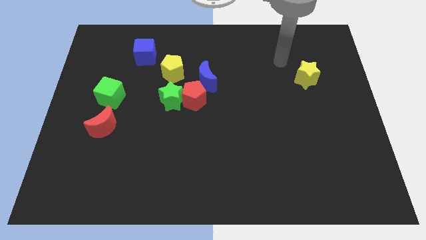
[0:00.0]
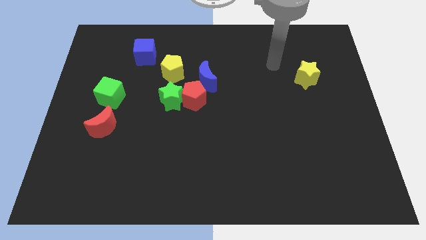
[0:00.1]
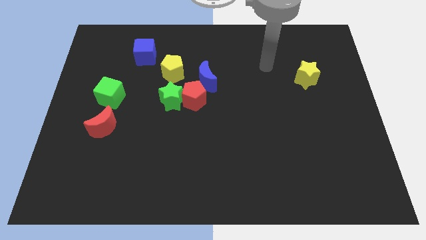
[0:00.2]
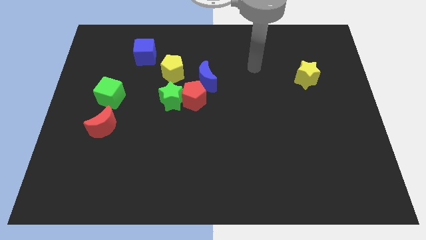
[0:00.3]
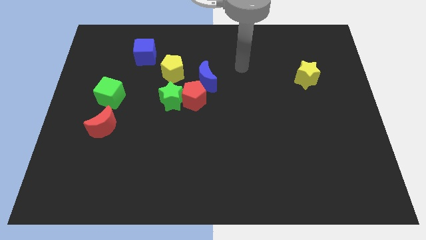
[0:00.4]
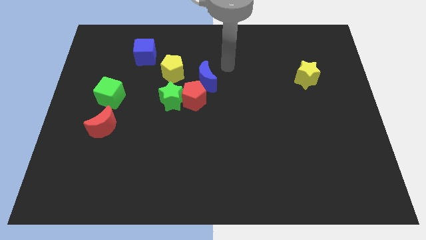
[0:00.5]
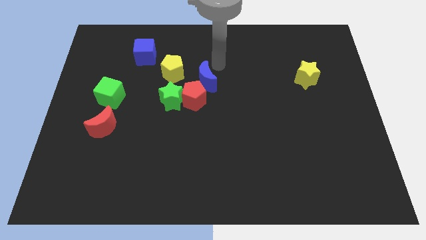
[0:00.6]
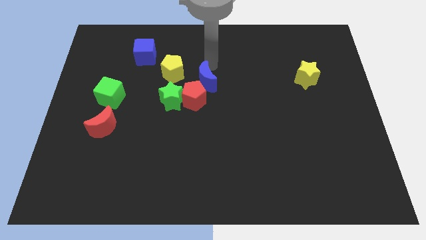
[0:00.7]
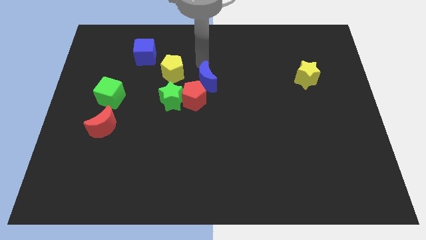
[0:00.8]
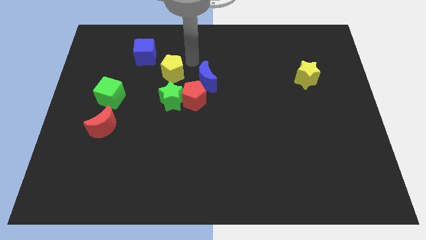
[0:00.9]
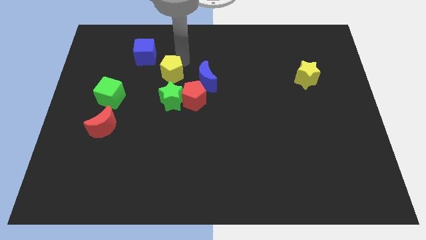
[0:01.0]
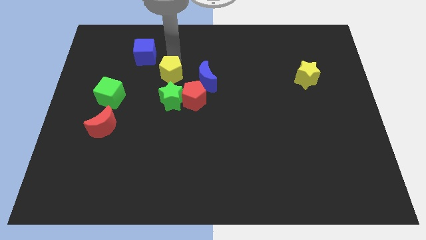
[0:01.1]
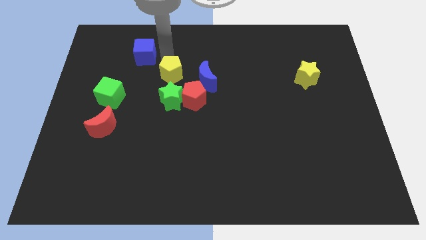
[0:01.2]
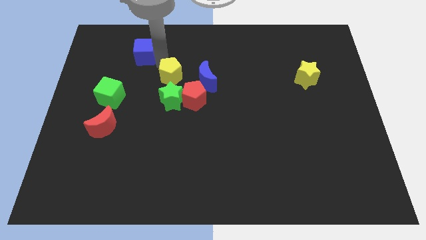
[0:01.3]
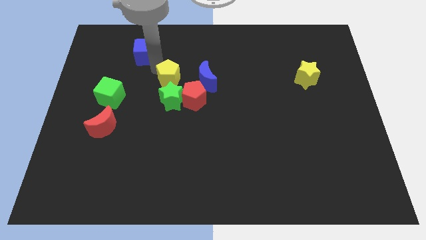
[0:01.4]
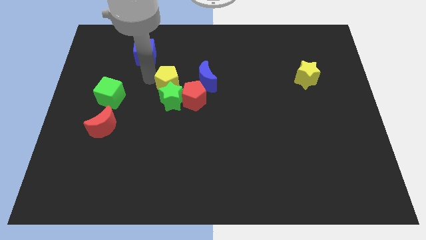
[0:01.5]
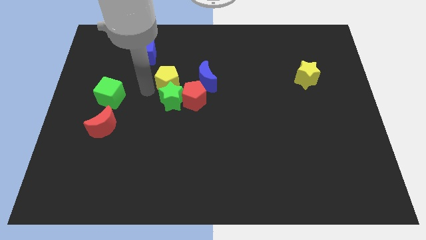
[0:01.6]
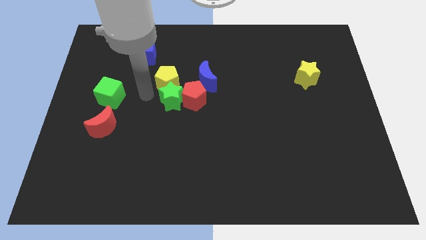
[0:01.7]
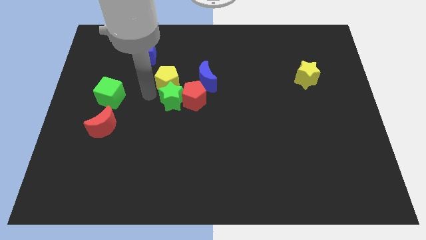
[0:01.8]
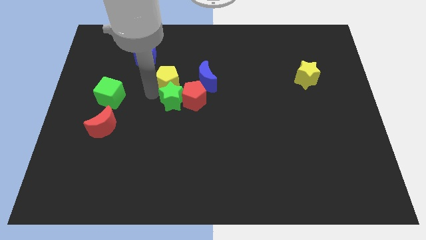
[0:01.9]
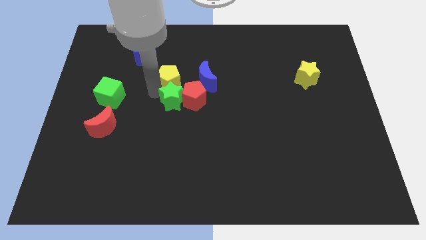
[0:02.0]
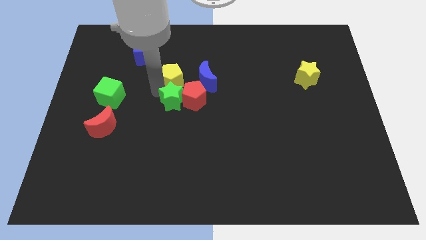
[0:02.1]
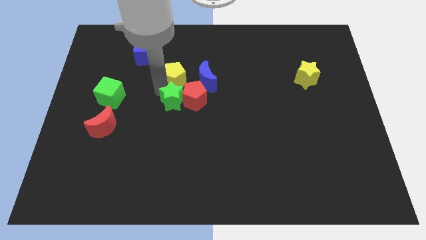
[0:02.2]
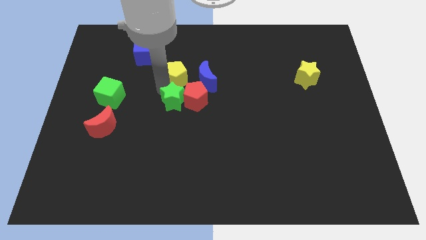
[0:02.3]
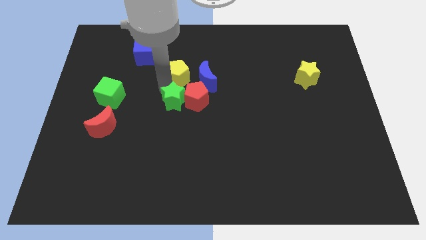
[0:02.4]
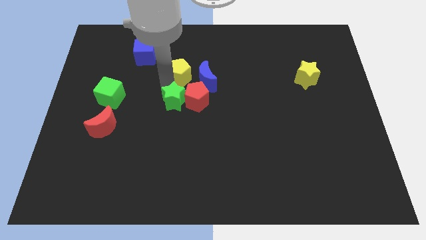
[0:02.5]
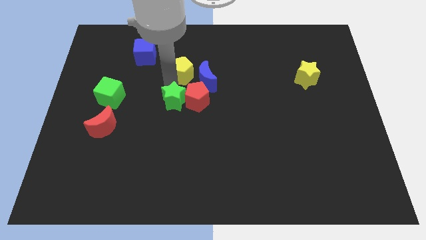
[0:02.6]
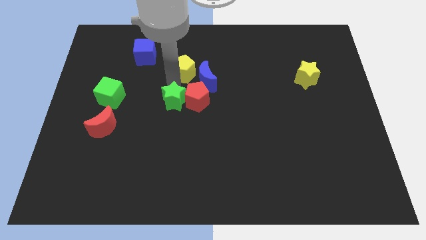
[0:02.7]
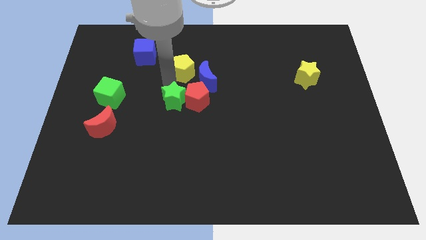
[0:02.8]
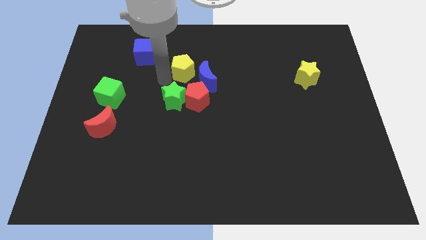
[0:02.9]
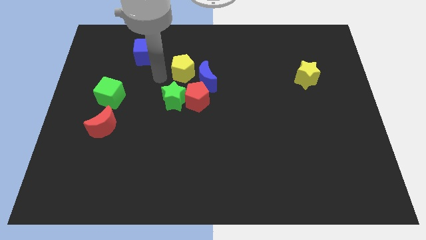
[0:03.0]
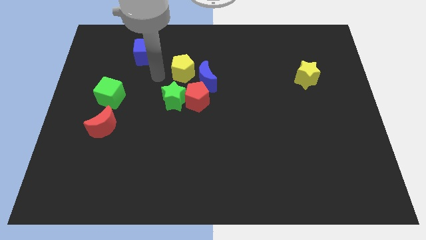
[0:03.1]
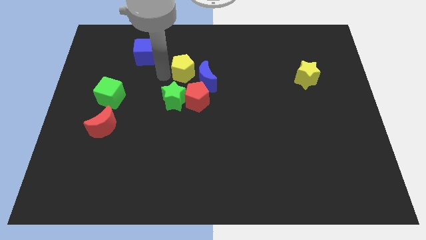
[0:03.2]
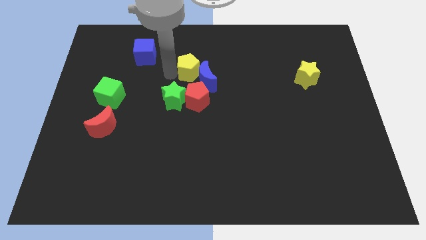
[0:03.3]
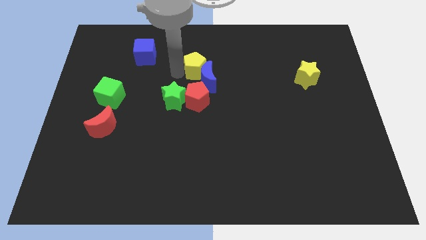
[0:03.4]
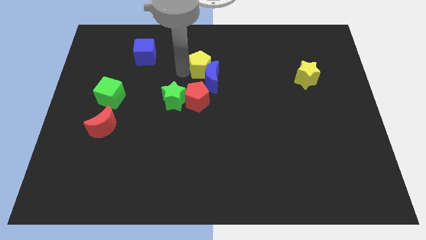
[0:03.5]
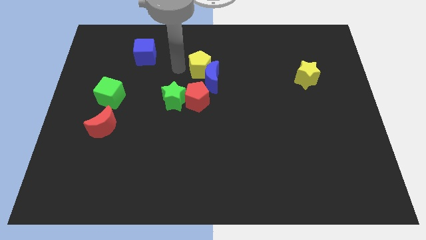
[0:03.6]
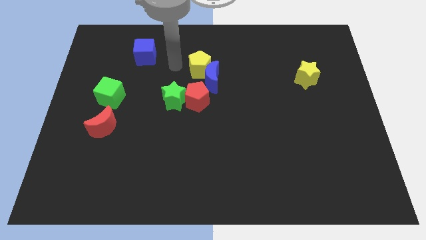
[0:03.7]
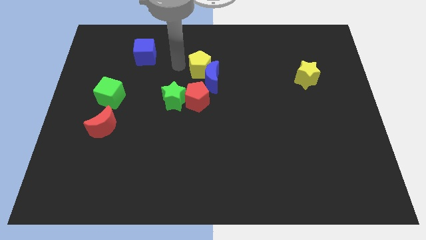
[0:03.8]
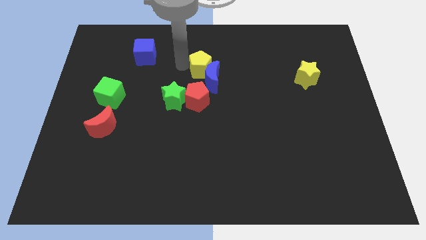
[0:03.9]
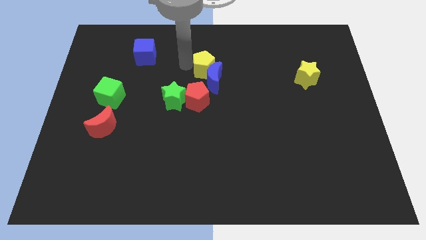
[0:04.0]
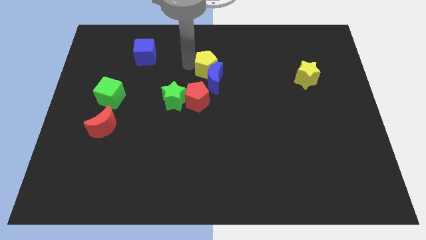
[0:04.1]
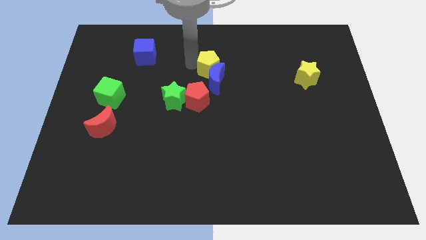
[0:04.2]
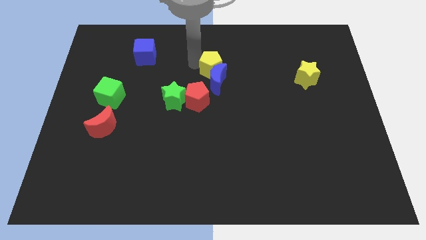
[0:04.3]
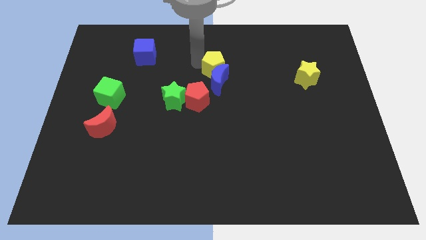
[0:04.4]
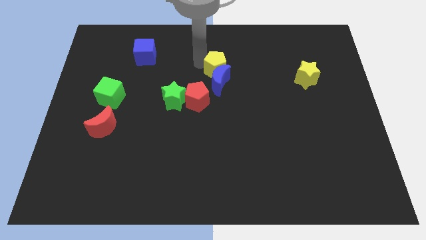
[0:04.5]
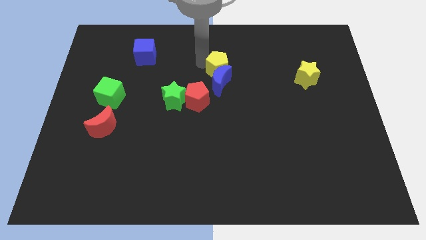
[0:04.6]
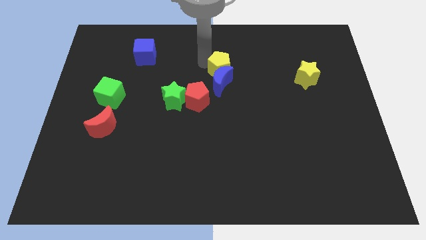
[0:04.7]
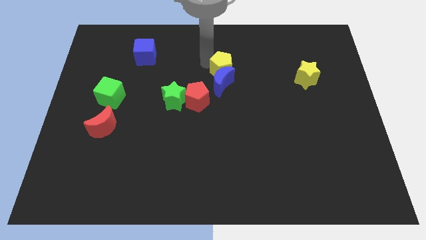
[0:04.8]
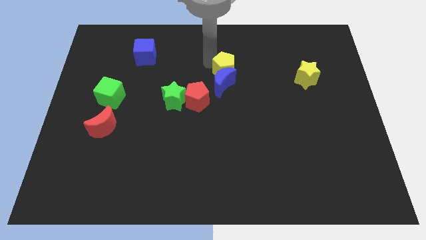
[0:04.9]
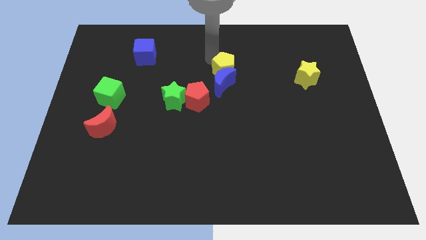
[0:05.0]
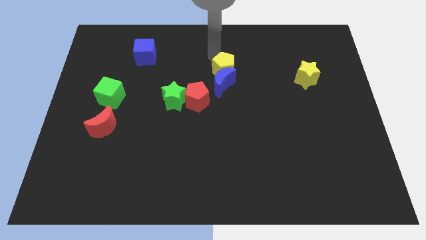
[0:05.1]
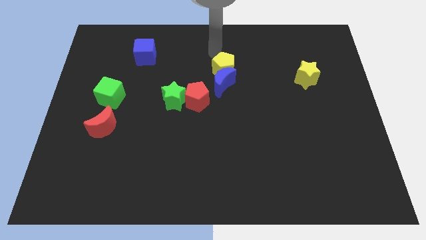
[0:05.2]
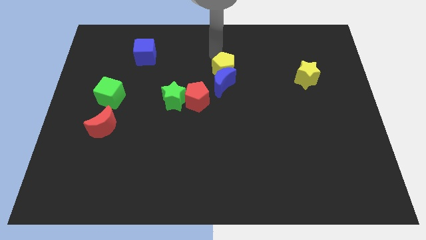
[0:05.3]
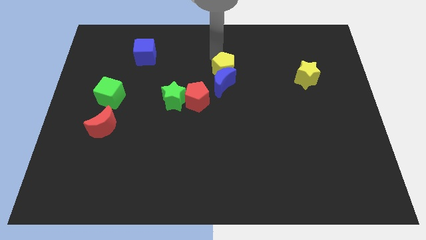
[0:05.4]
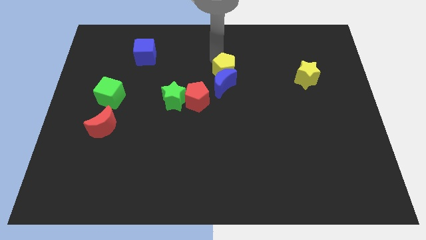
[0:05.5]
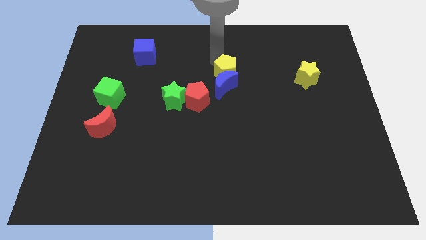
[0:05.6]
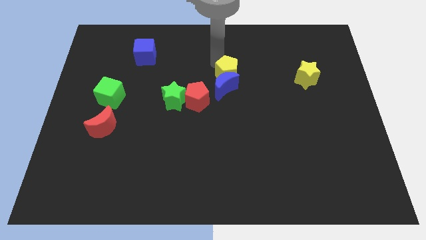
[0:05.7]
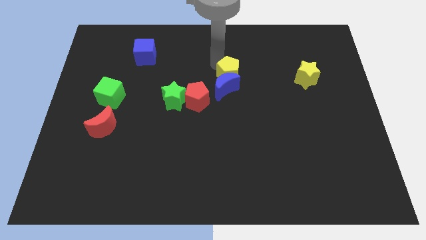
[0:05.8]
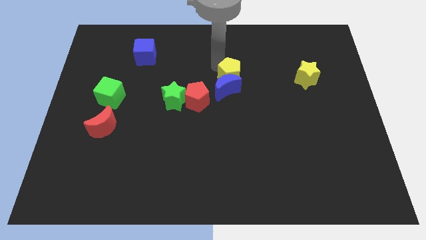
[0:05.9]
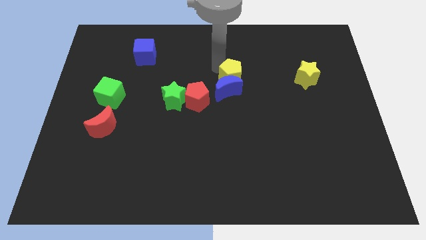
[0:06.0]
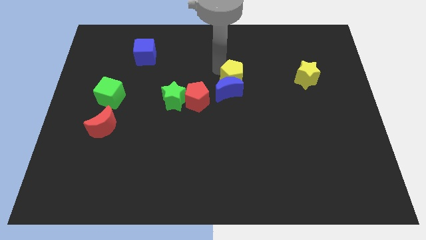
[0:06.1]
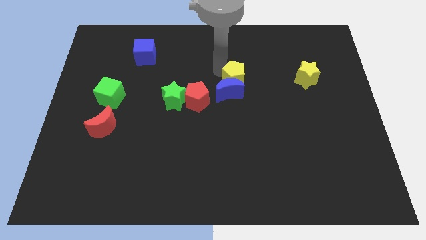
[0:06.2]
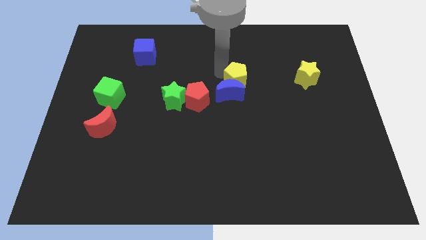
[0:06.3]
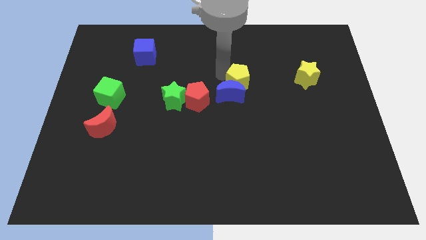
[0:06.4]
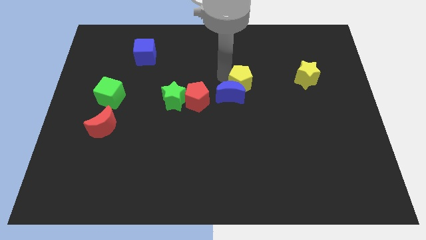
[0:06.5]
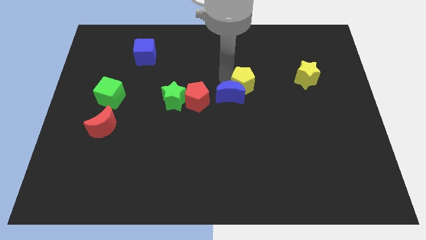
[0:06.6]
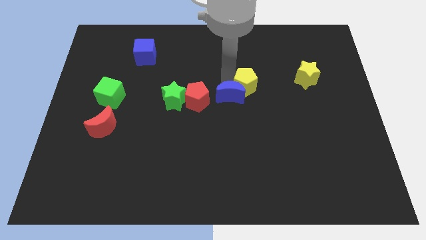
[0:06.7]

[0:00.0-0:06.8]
push the yellow pentagon to the right of the red pentagon
